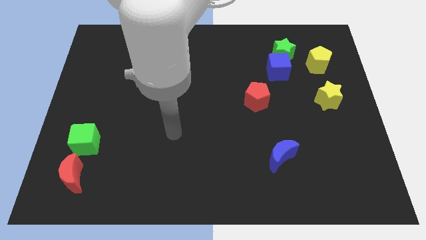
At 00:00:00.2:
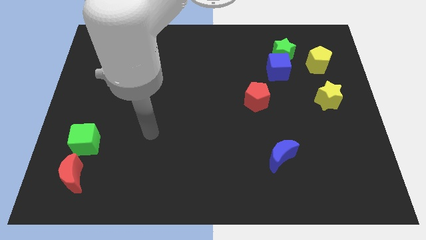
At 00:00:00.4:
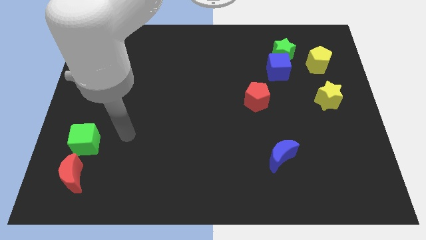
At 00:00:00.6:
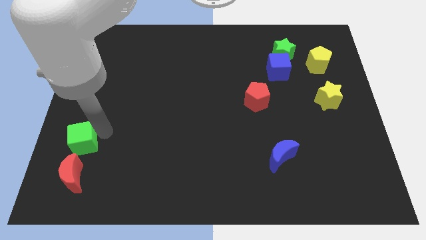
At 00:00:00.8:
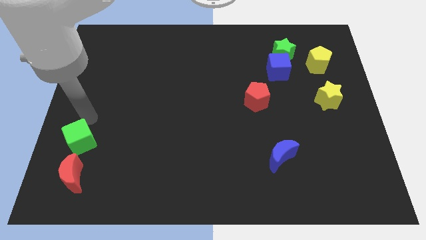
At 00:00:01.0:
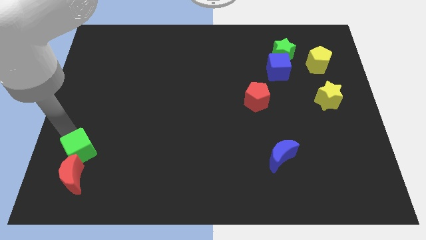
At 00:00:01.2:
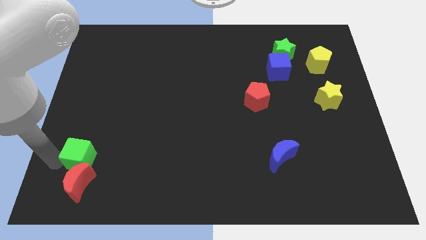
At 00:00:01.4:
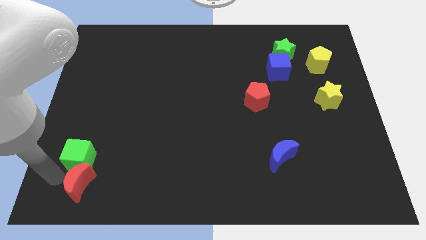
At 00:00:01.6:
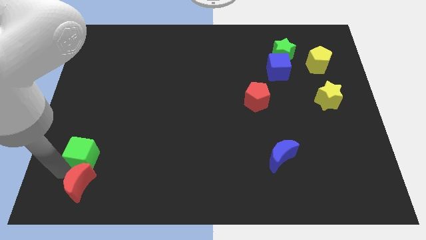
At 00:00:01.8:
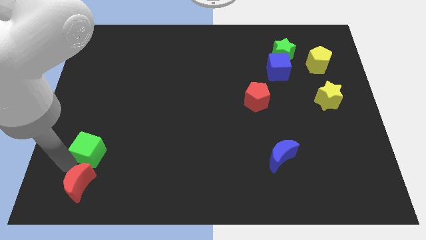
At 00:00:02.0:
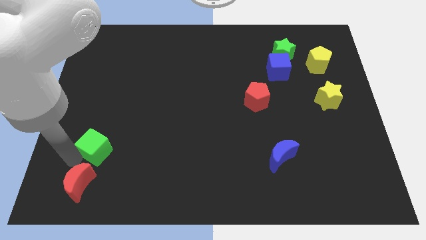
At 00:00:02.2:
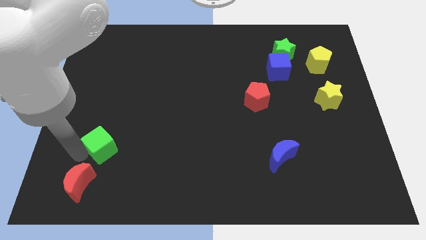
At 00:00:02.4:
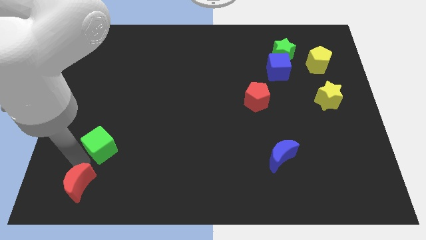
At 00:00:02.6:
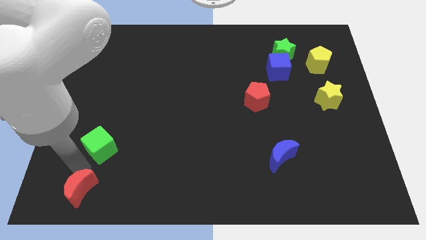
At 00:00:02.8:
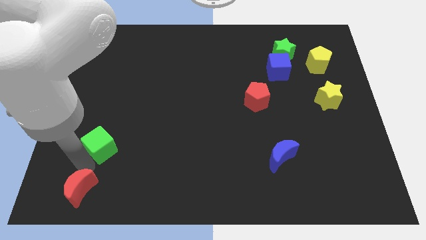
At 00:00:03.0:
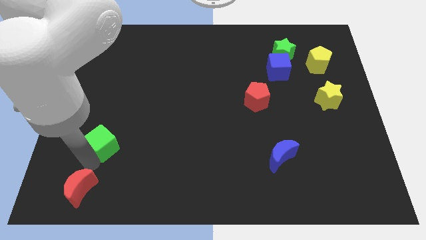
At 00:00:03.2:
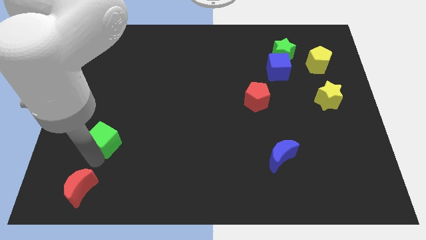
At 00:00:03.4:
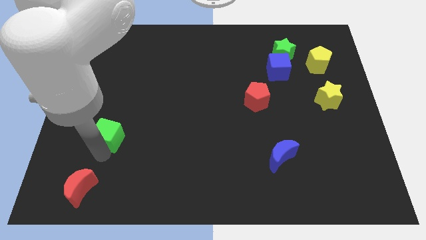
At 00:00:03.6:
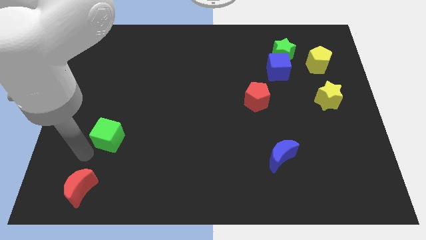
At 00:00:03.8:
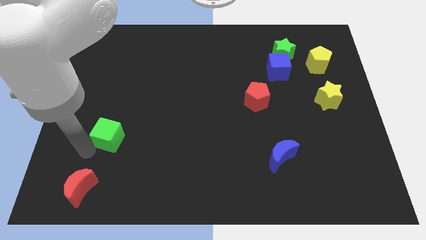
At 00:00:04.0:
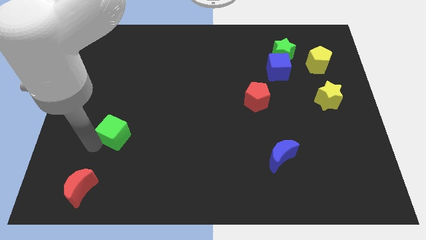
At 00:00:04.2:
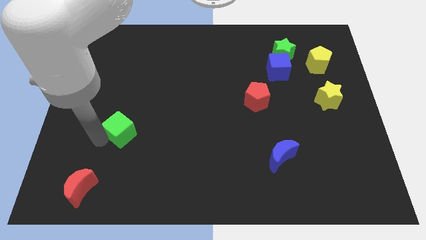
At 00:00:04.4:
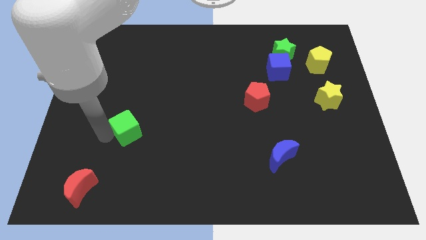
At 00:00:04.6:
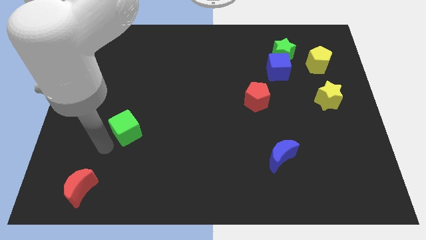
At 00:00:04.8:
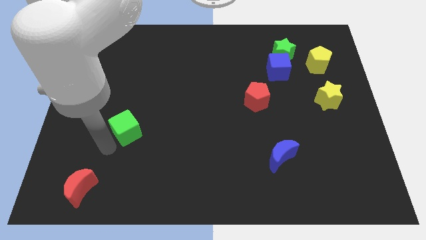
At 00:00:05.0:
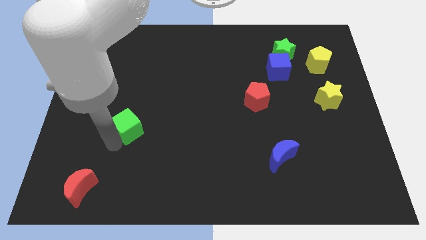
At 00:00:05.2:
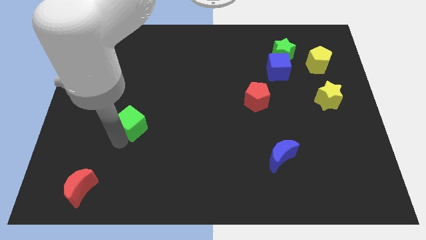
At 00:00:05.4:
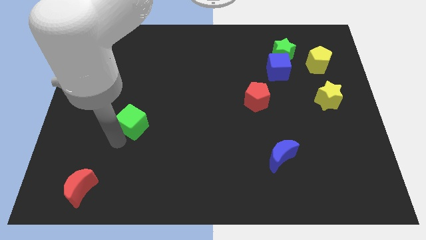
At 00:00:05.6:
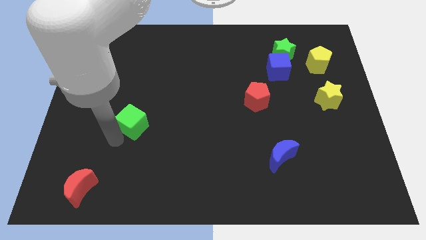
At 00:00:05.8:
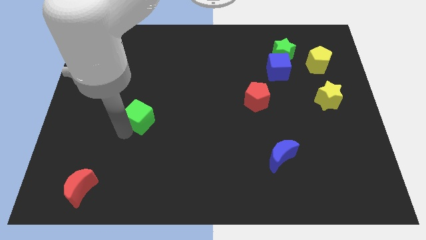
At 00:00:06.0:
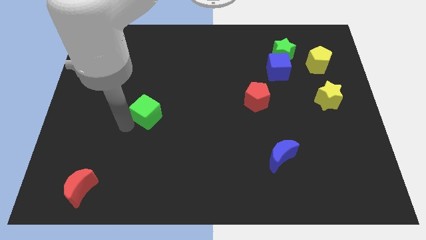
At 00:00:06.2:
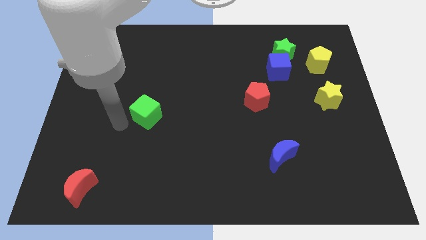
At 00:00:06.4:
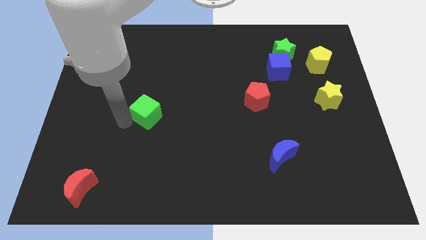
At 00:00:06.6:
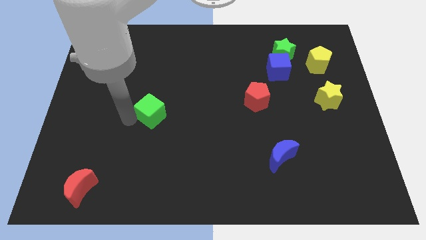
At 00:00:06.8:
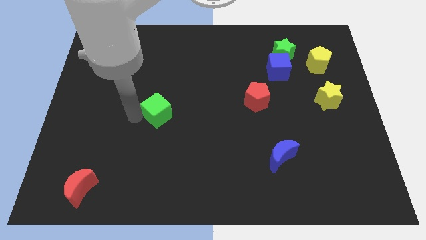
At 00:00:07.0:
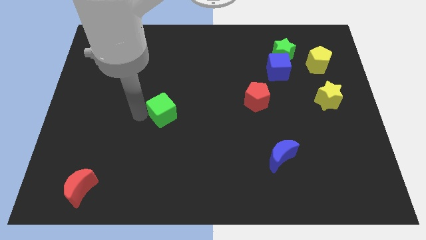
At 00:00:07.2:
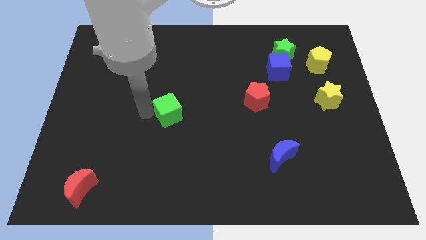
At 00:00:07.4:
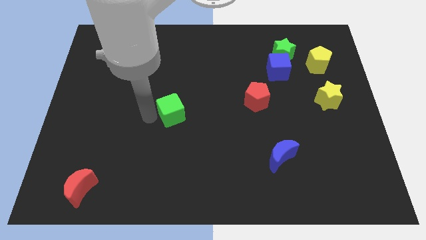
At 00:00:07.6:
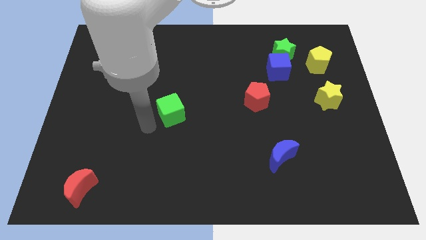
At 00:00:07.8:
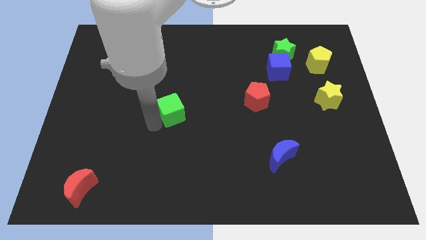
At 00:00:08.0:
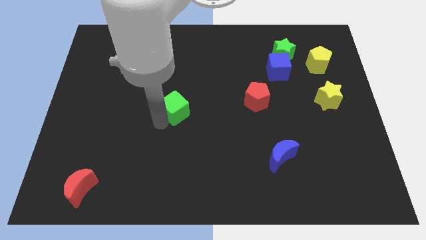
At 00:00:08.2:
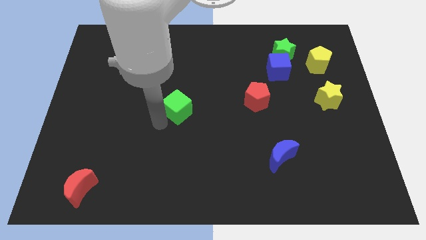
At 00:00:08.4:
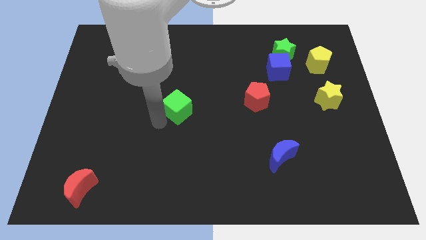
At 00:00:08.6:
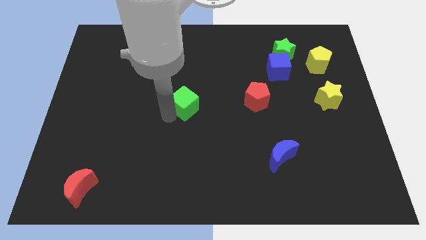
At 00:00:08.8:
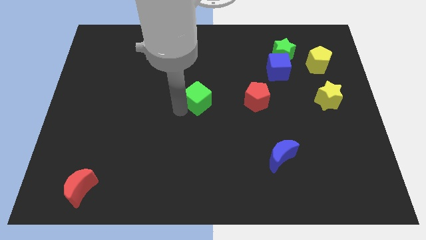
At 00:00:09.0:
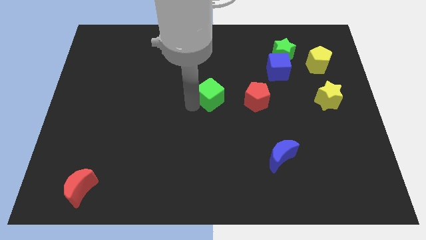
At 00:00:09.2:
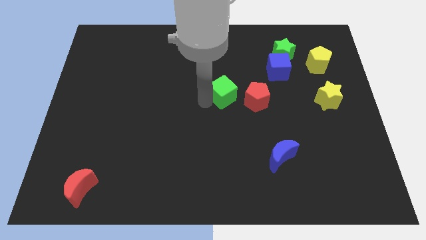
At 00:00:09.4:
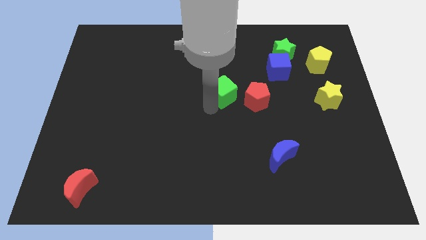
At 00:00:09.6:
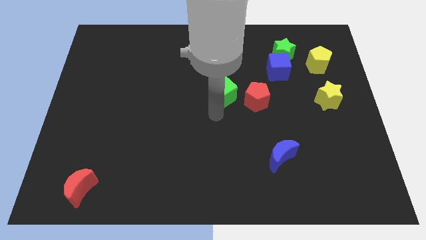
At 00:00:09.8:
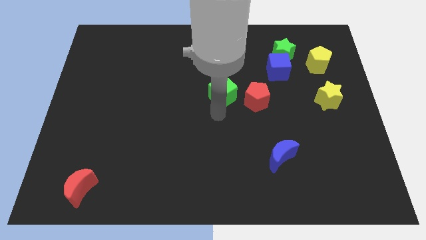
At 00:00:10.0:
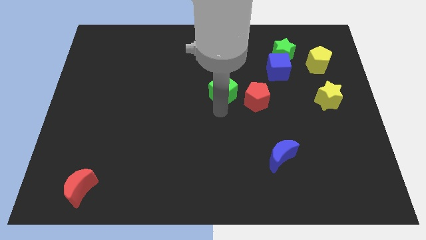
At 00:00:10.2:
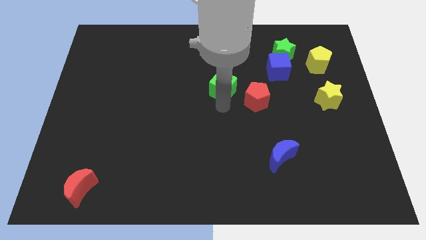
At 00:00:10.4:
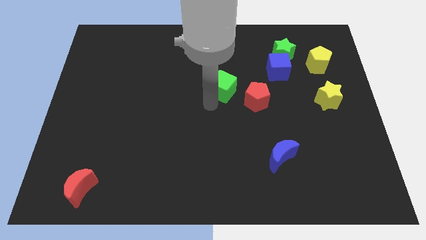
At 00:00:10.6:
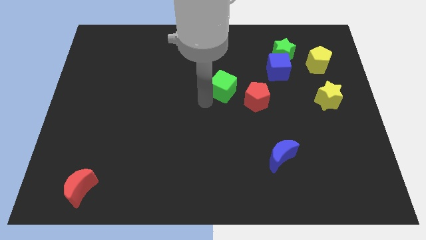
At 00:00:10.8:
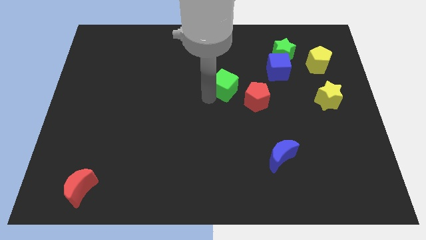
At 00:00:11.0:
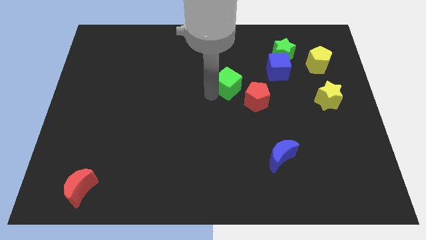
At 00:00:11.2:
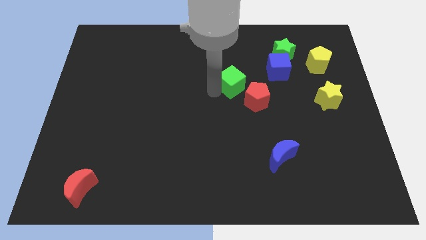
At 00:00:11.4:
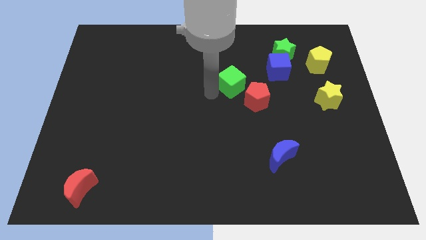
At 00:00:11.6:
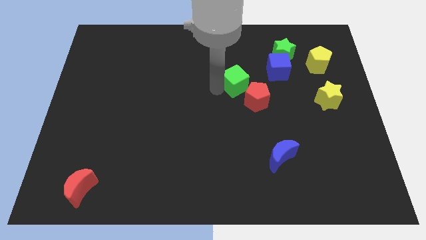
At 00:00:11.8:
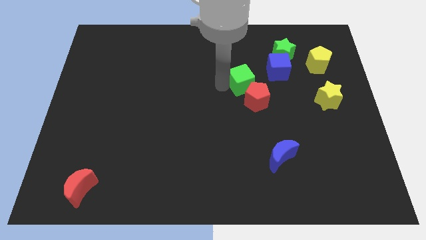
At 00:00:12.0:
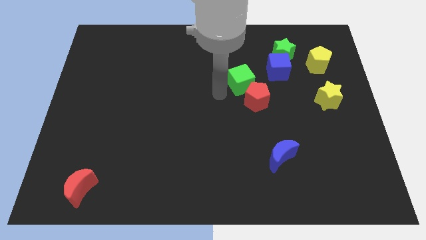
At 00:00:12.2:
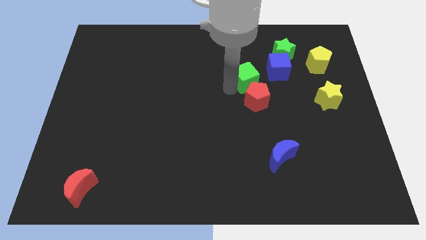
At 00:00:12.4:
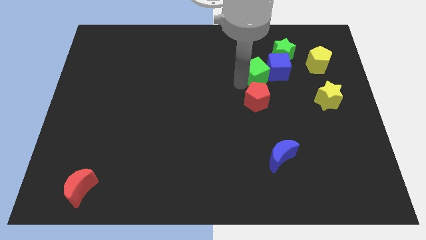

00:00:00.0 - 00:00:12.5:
push the green cube towards the blue cube
